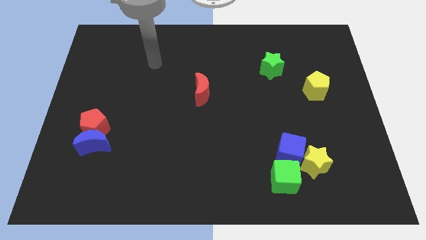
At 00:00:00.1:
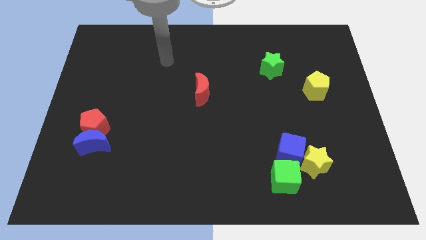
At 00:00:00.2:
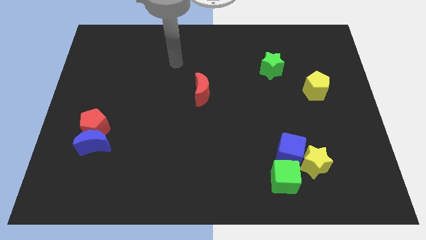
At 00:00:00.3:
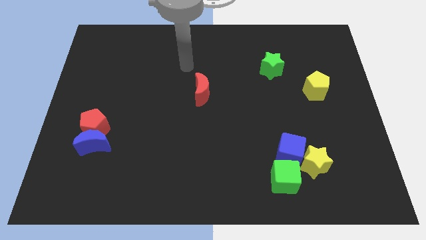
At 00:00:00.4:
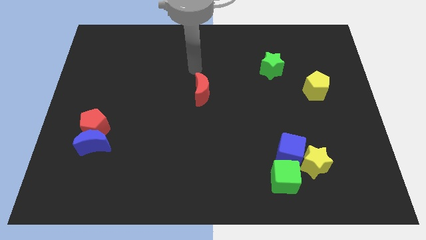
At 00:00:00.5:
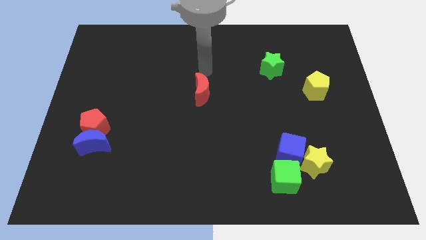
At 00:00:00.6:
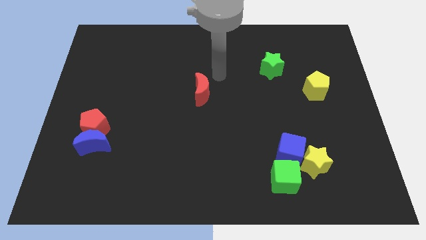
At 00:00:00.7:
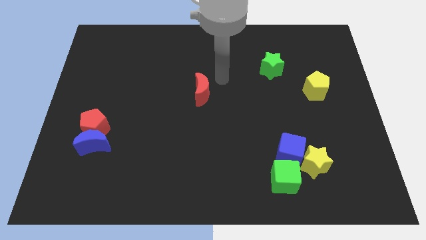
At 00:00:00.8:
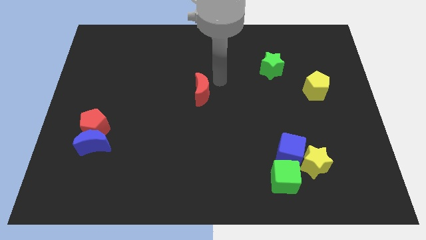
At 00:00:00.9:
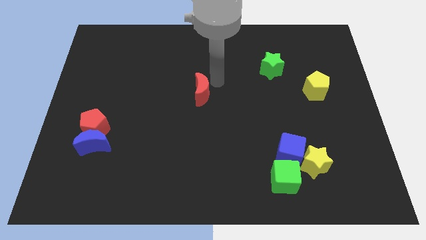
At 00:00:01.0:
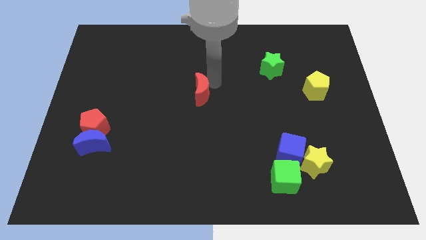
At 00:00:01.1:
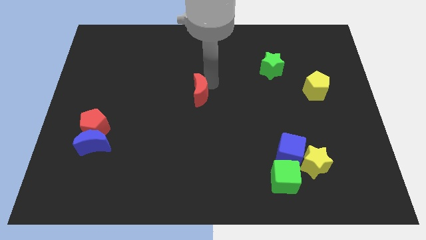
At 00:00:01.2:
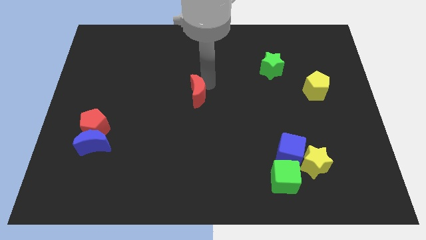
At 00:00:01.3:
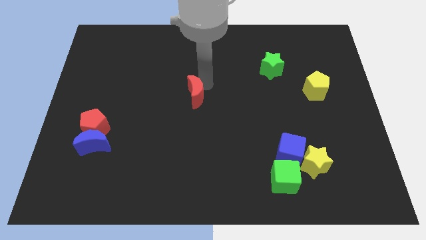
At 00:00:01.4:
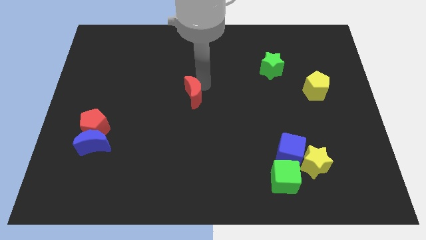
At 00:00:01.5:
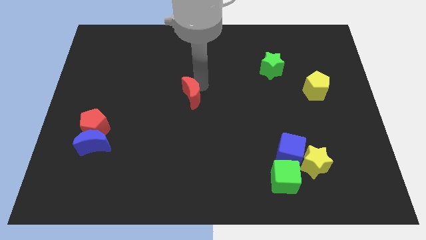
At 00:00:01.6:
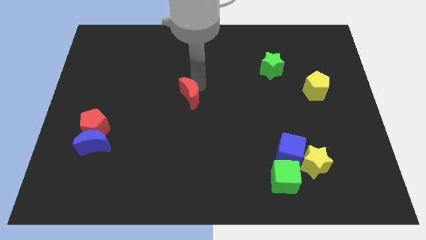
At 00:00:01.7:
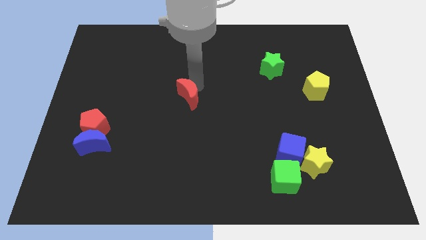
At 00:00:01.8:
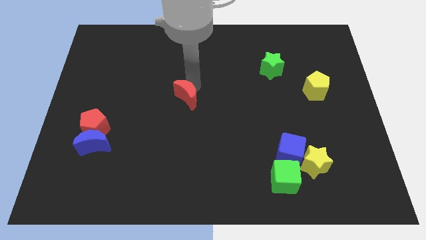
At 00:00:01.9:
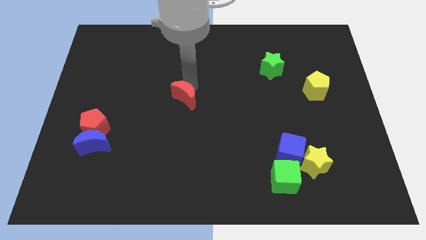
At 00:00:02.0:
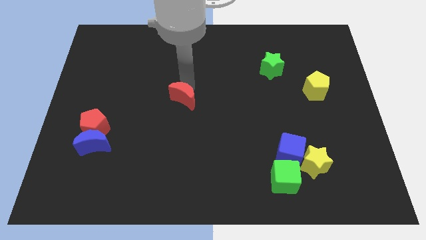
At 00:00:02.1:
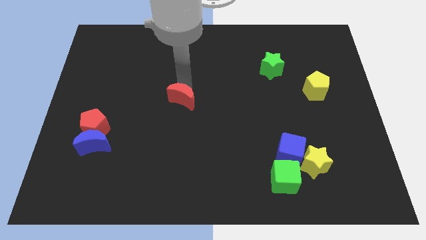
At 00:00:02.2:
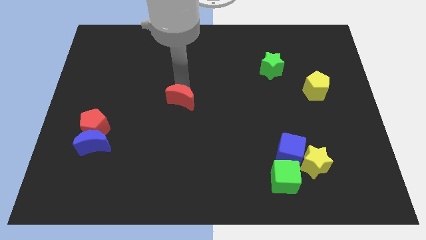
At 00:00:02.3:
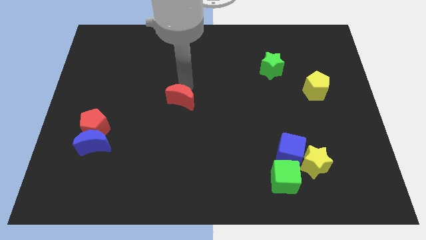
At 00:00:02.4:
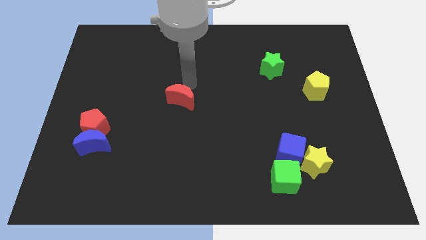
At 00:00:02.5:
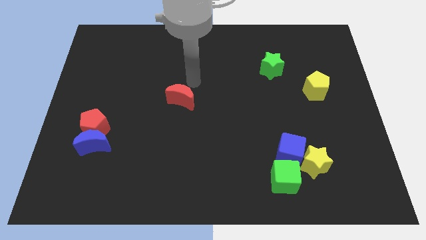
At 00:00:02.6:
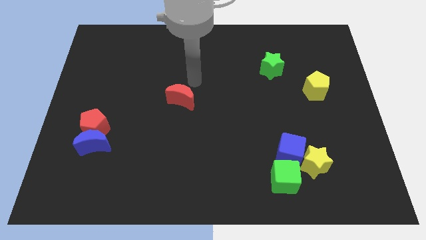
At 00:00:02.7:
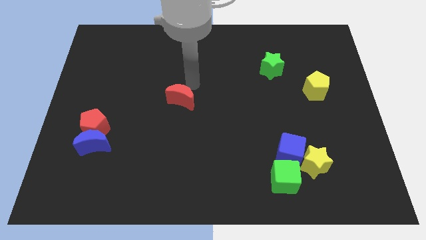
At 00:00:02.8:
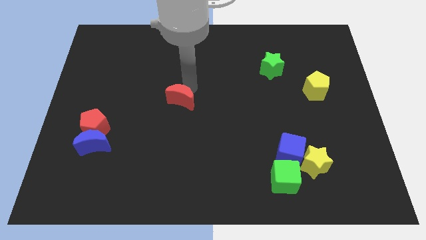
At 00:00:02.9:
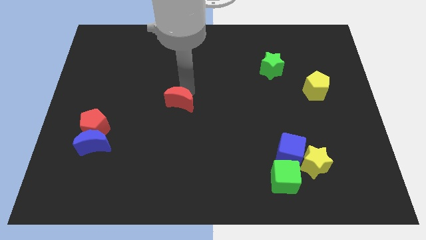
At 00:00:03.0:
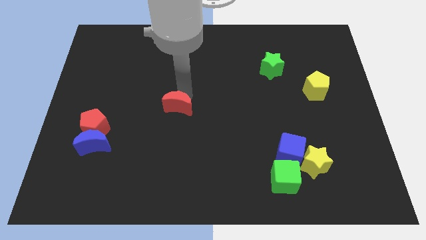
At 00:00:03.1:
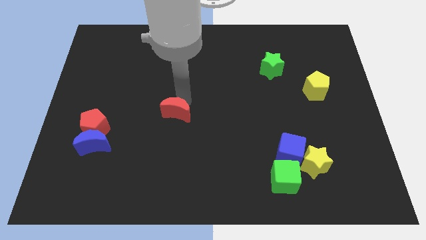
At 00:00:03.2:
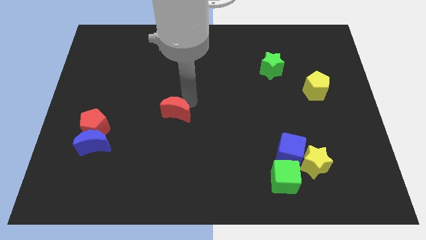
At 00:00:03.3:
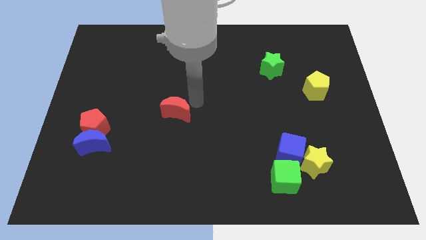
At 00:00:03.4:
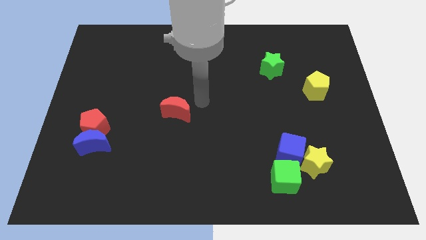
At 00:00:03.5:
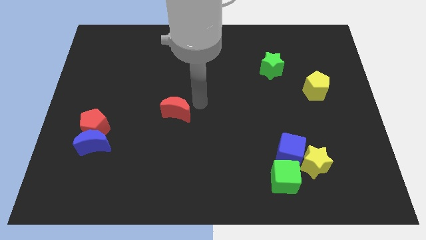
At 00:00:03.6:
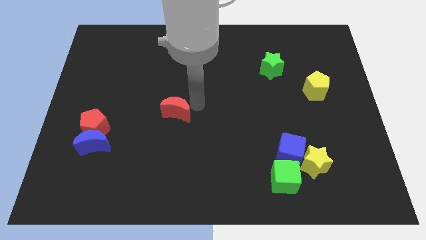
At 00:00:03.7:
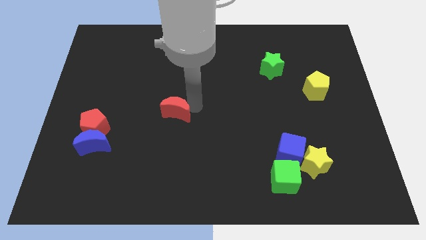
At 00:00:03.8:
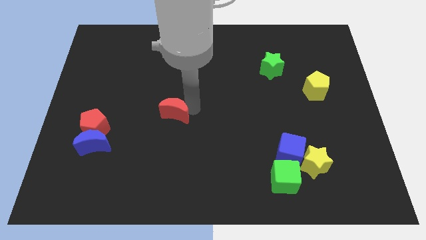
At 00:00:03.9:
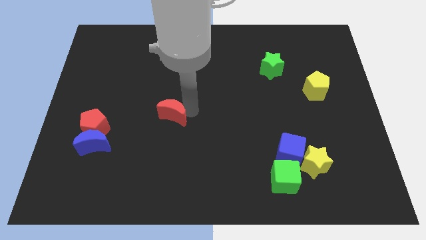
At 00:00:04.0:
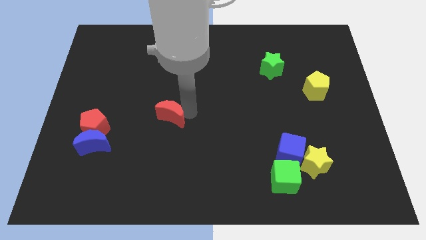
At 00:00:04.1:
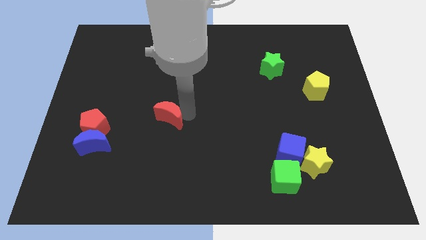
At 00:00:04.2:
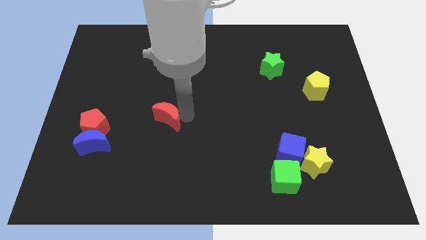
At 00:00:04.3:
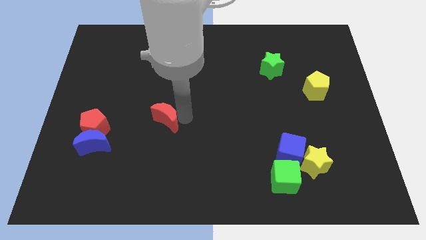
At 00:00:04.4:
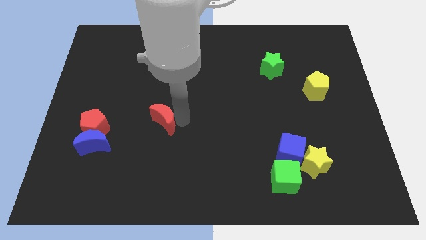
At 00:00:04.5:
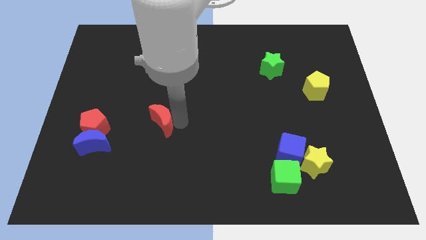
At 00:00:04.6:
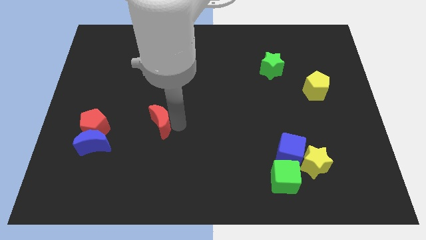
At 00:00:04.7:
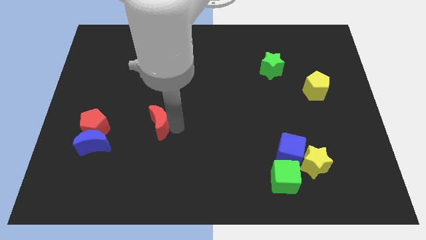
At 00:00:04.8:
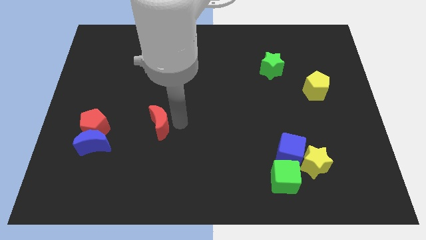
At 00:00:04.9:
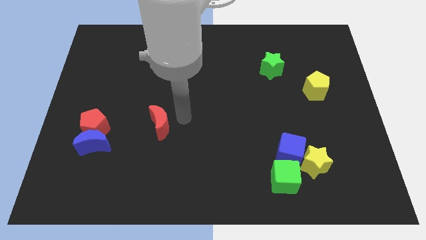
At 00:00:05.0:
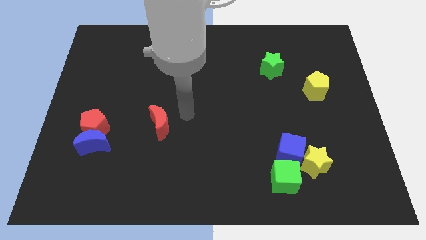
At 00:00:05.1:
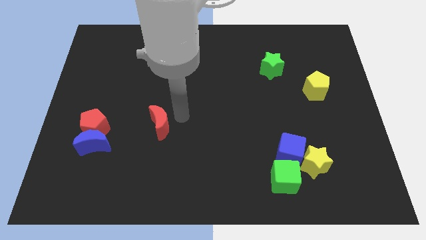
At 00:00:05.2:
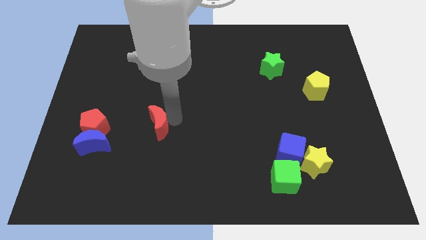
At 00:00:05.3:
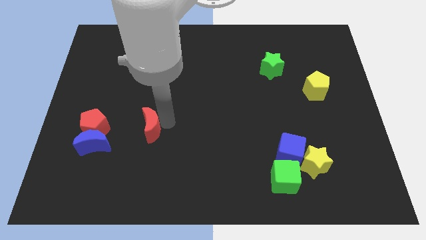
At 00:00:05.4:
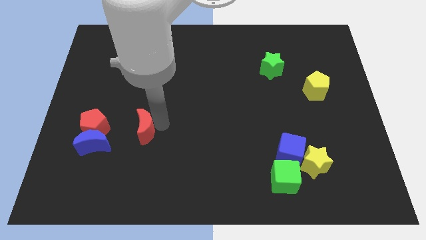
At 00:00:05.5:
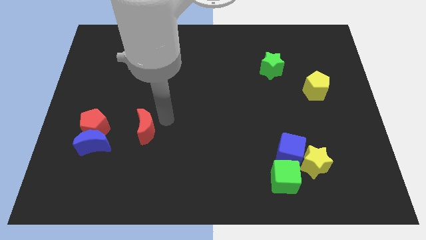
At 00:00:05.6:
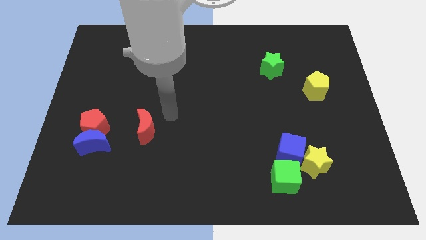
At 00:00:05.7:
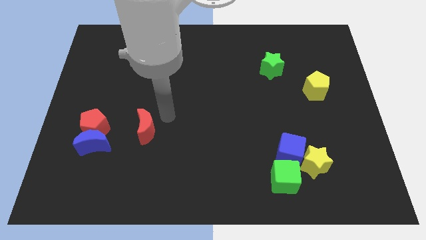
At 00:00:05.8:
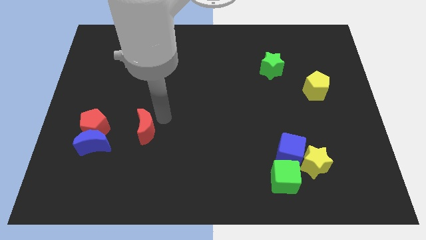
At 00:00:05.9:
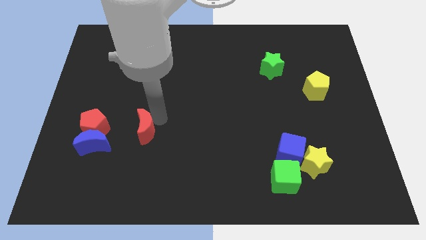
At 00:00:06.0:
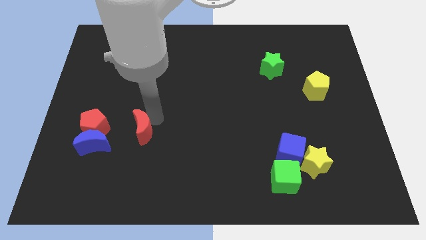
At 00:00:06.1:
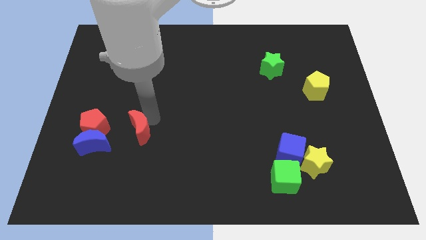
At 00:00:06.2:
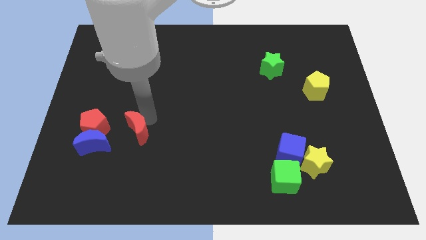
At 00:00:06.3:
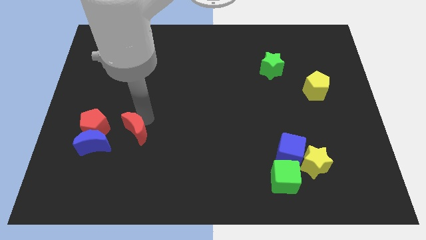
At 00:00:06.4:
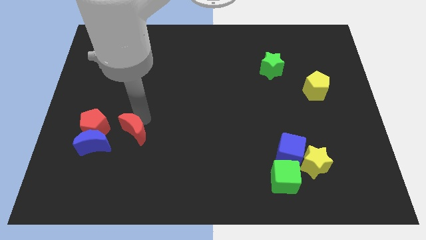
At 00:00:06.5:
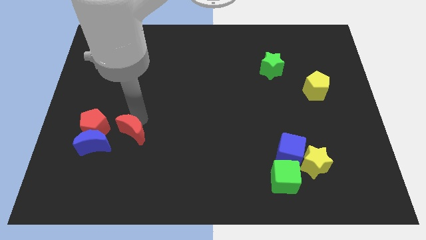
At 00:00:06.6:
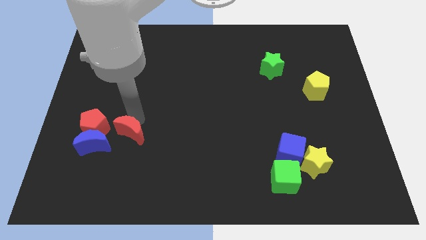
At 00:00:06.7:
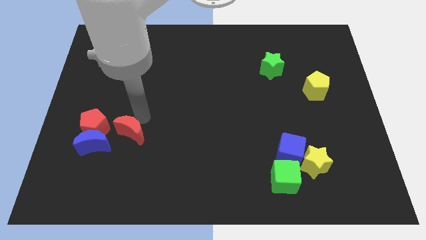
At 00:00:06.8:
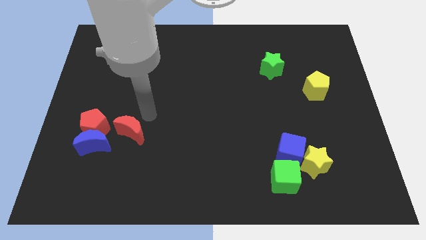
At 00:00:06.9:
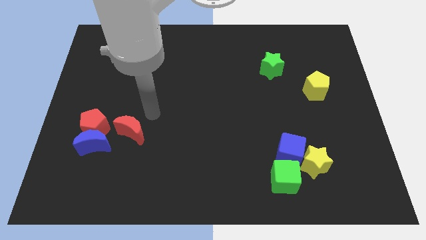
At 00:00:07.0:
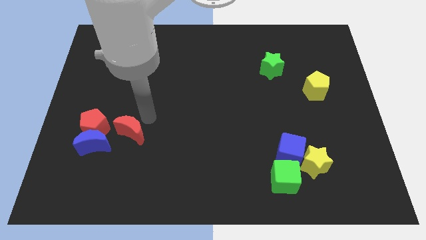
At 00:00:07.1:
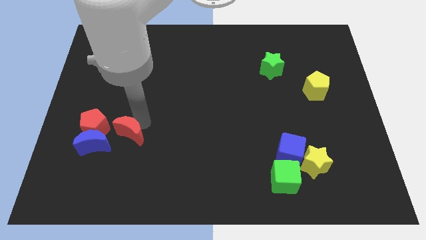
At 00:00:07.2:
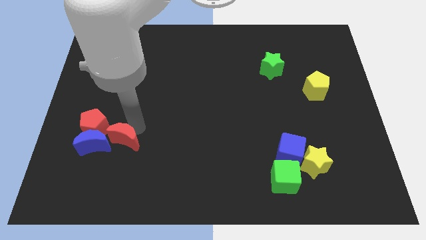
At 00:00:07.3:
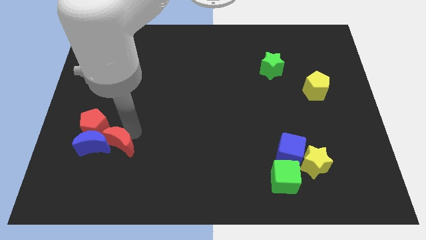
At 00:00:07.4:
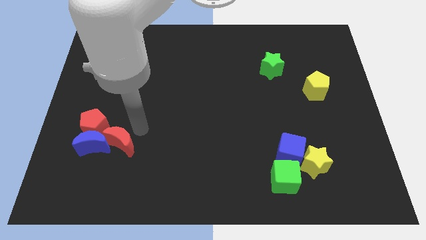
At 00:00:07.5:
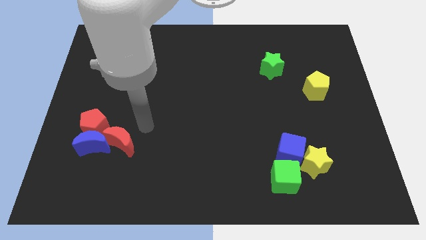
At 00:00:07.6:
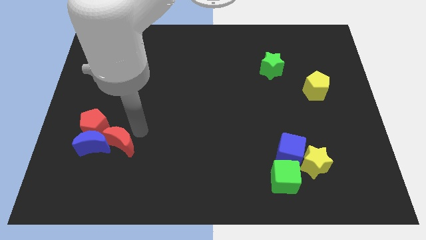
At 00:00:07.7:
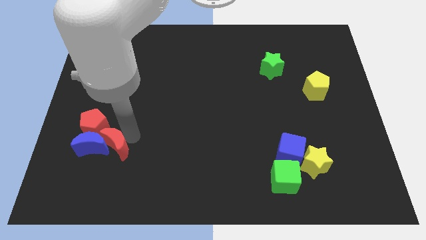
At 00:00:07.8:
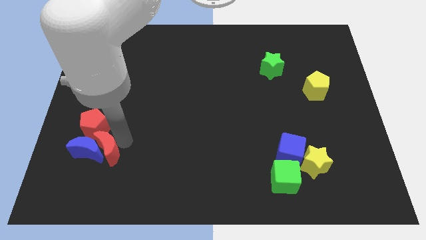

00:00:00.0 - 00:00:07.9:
push the red moon below the red pentagon
